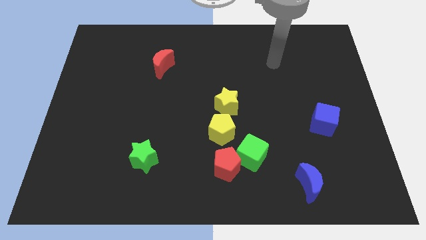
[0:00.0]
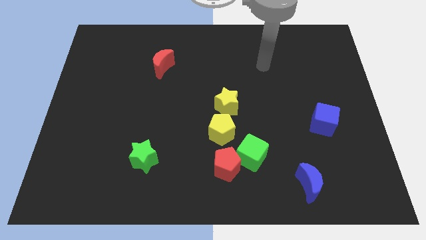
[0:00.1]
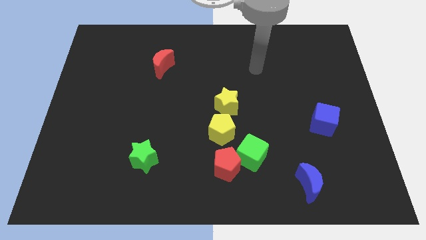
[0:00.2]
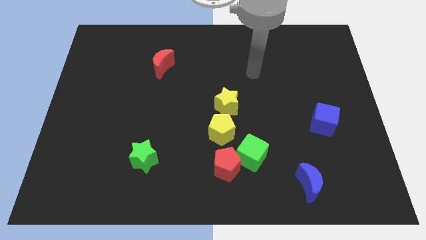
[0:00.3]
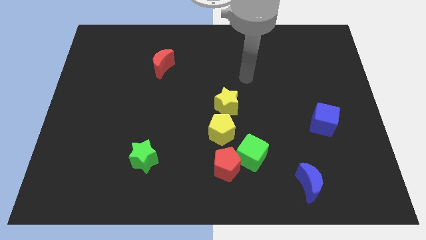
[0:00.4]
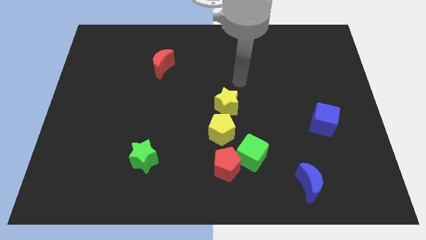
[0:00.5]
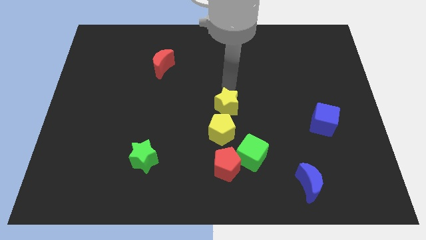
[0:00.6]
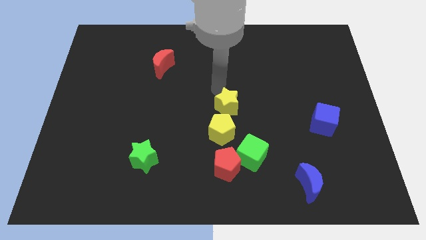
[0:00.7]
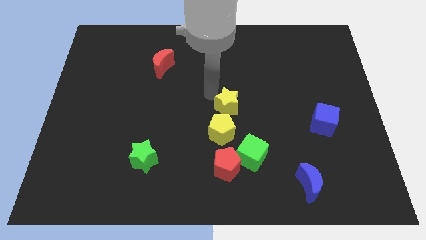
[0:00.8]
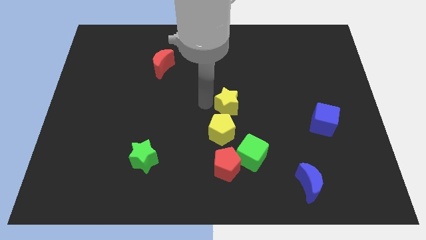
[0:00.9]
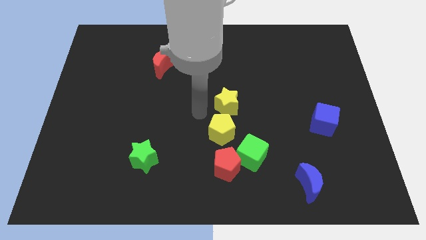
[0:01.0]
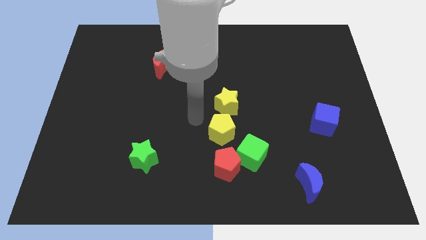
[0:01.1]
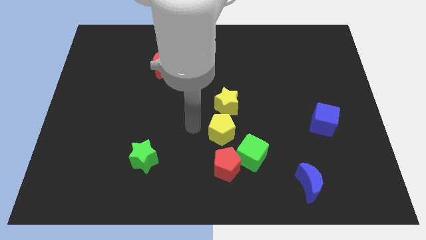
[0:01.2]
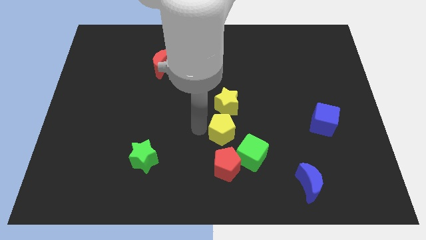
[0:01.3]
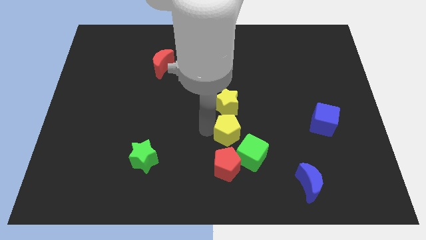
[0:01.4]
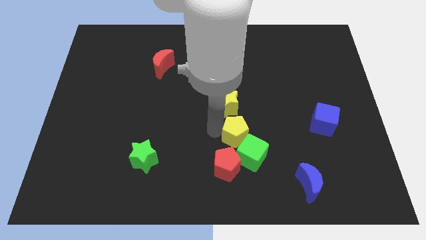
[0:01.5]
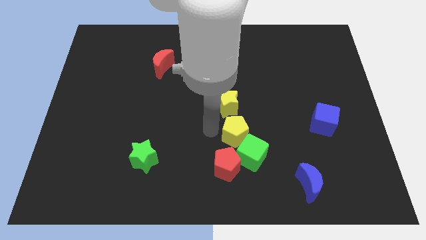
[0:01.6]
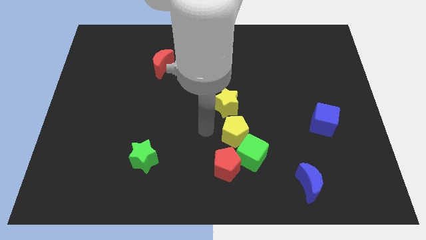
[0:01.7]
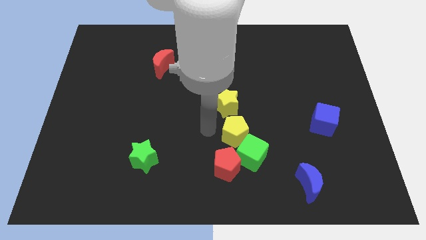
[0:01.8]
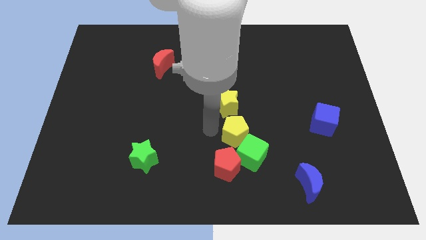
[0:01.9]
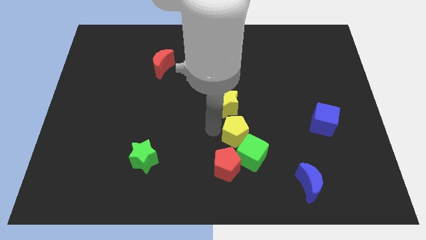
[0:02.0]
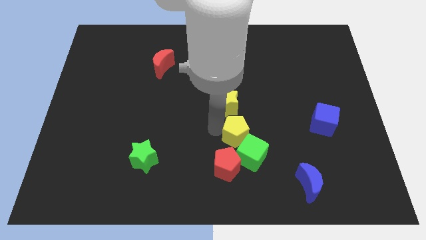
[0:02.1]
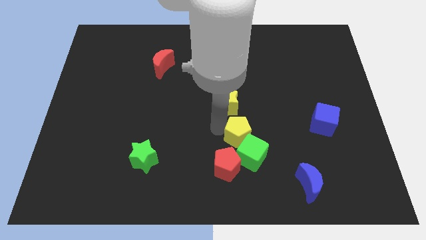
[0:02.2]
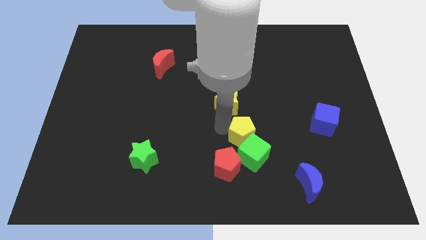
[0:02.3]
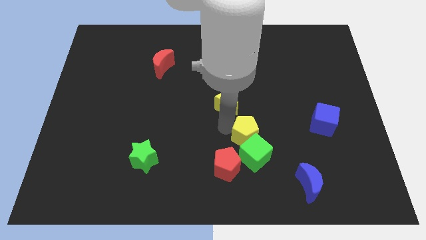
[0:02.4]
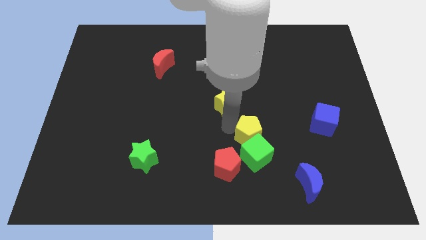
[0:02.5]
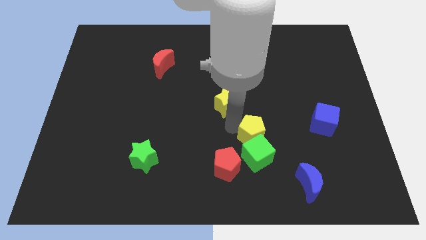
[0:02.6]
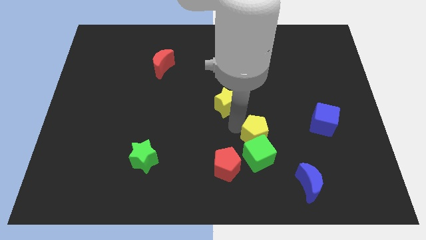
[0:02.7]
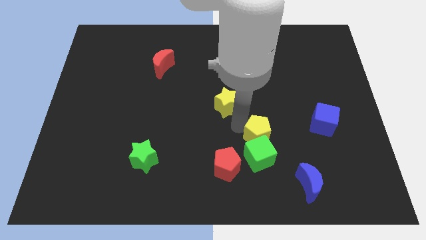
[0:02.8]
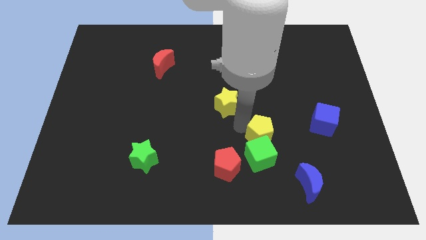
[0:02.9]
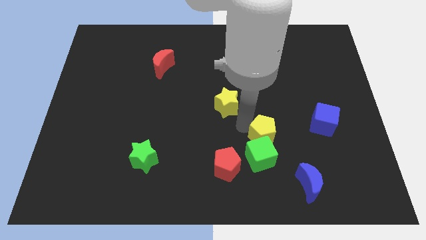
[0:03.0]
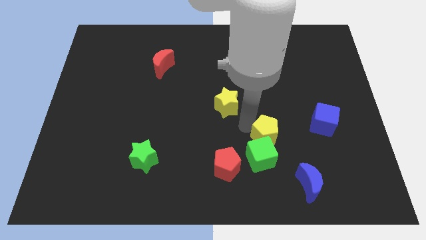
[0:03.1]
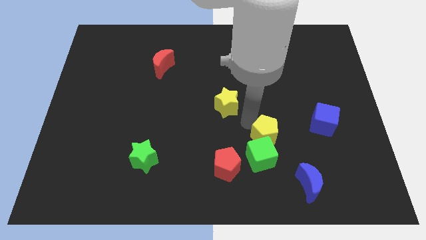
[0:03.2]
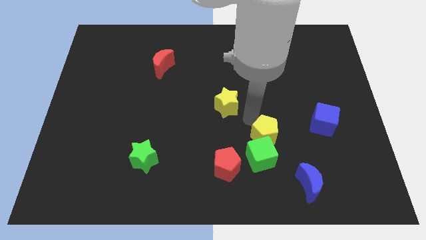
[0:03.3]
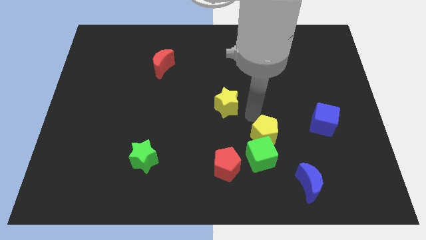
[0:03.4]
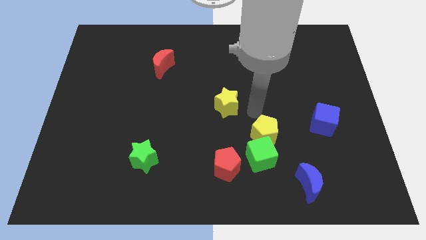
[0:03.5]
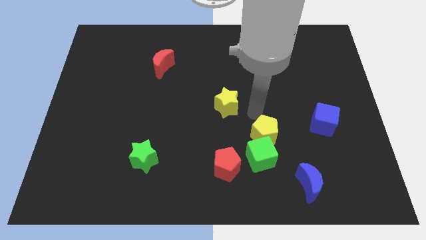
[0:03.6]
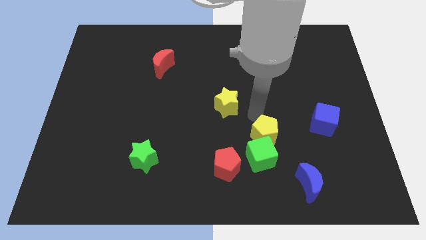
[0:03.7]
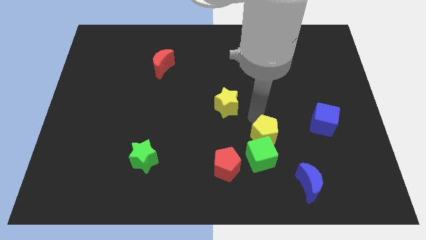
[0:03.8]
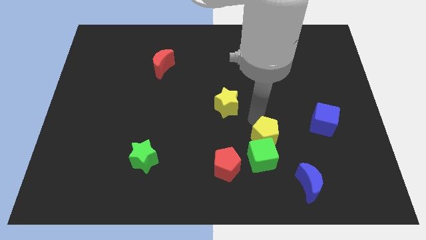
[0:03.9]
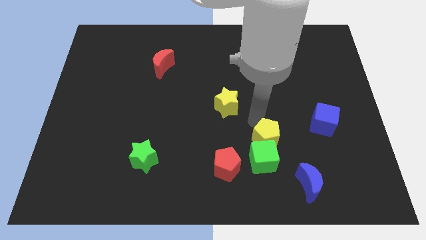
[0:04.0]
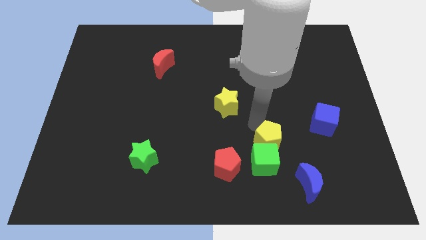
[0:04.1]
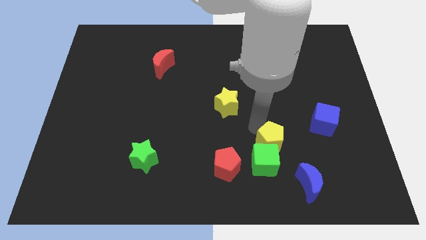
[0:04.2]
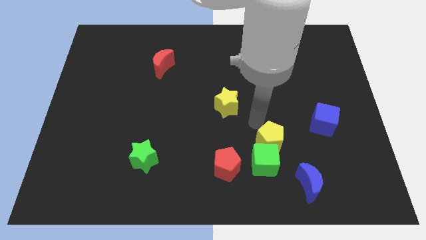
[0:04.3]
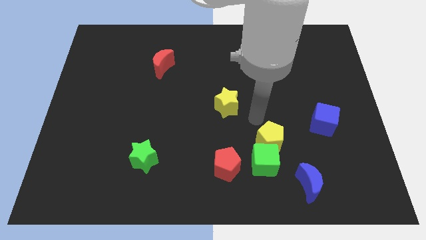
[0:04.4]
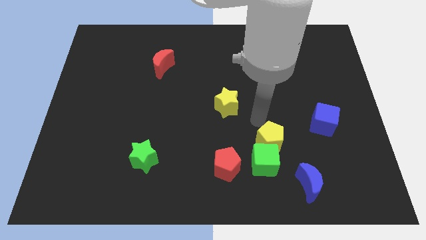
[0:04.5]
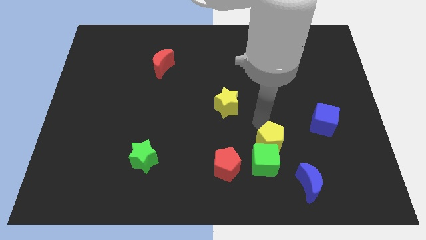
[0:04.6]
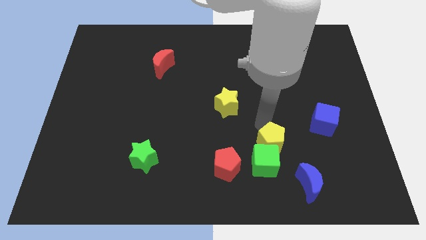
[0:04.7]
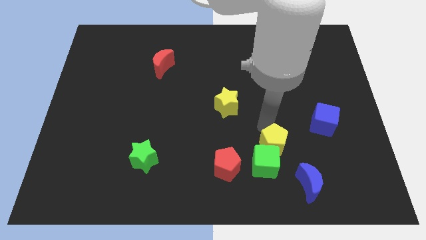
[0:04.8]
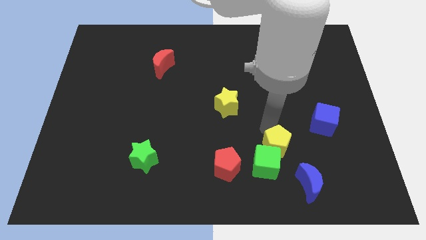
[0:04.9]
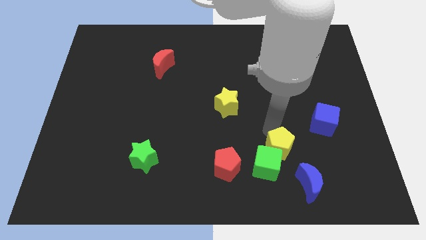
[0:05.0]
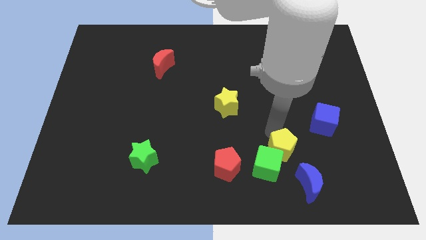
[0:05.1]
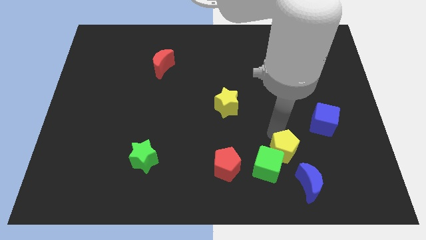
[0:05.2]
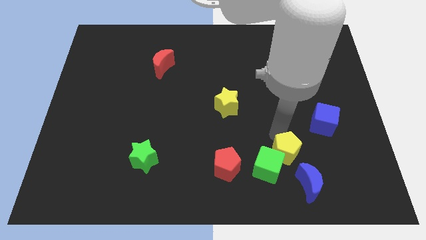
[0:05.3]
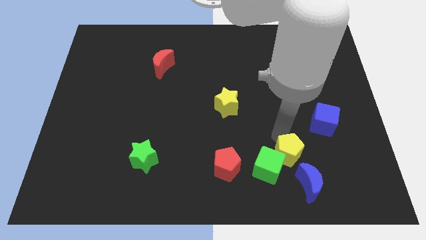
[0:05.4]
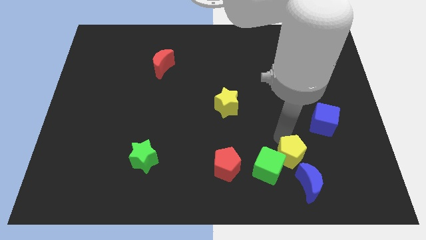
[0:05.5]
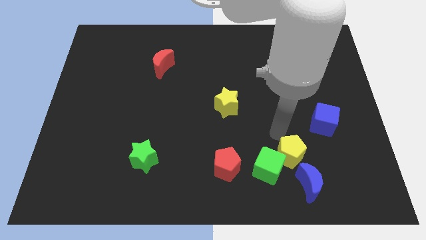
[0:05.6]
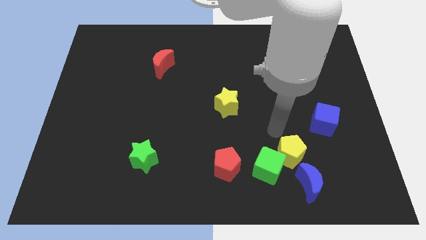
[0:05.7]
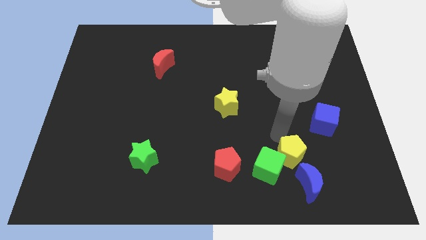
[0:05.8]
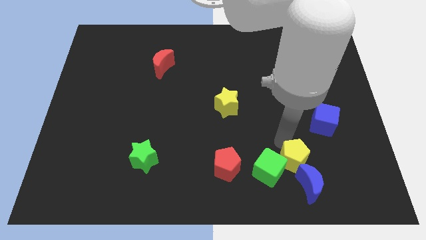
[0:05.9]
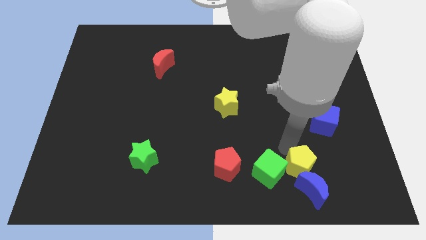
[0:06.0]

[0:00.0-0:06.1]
put the yellow pentagon to the blue moon
